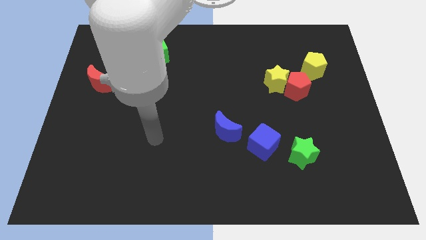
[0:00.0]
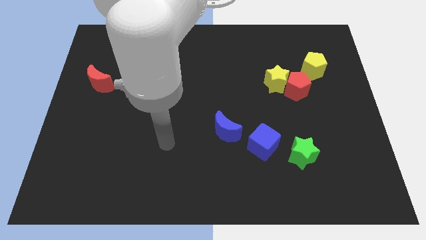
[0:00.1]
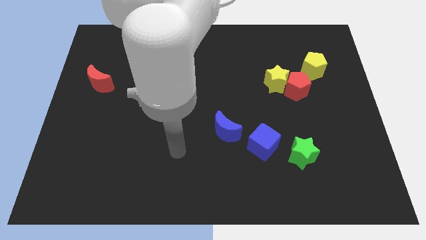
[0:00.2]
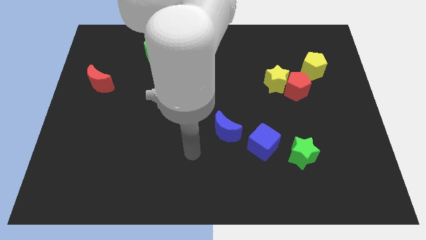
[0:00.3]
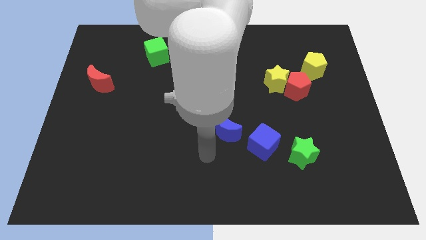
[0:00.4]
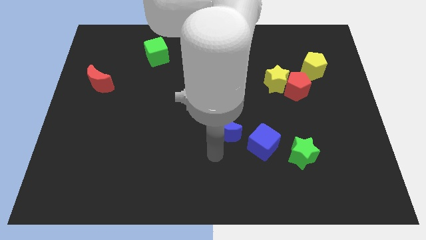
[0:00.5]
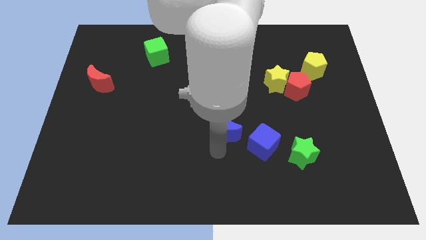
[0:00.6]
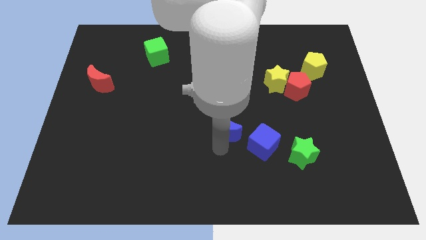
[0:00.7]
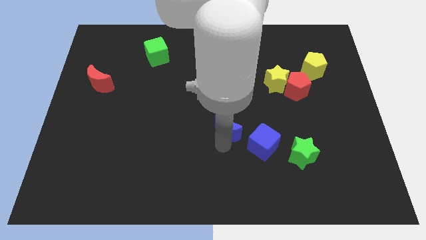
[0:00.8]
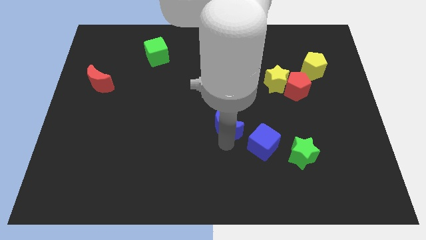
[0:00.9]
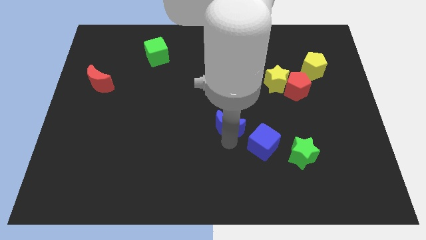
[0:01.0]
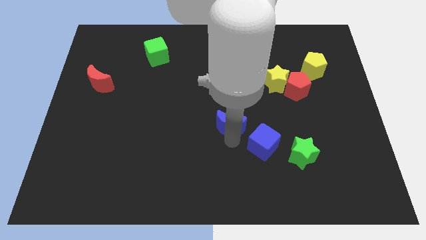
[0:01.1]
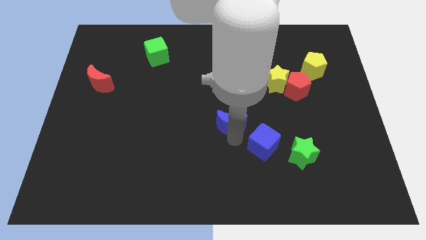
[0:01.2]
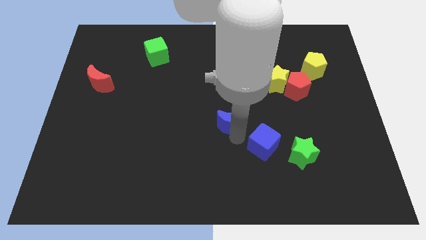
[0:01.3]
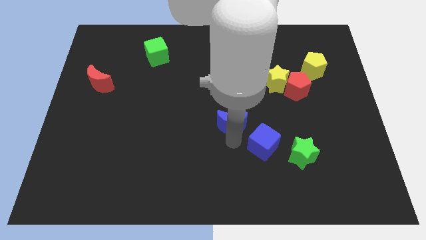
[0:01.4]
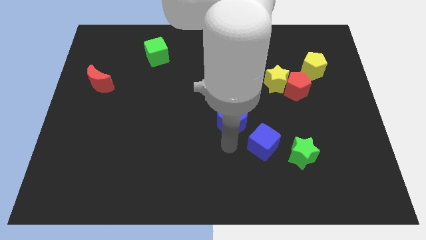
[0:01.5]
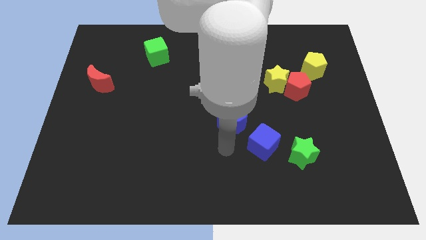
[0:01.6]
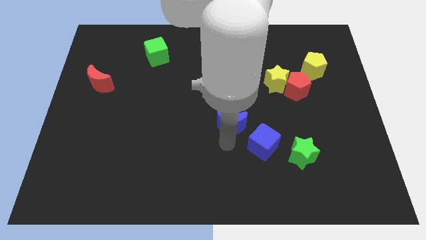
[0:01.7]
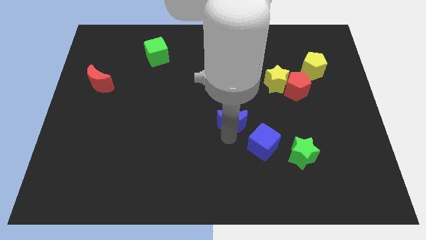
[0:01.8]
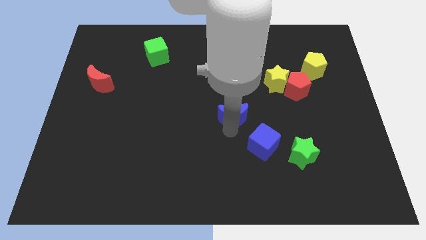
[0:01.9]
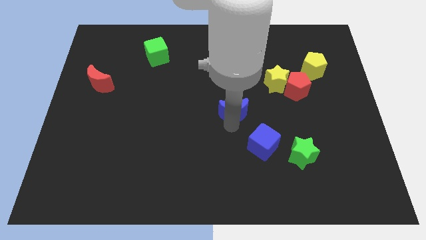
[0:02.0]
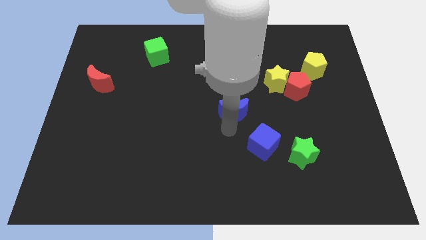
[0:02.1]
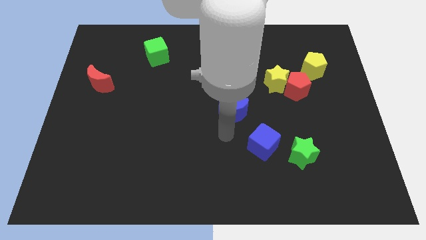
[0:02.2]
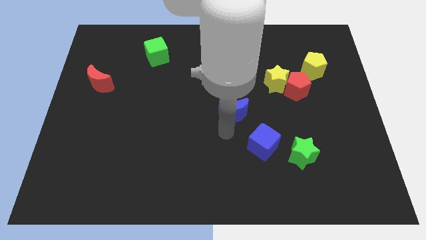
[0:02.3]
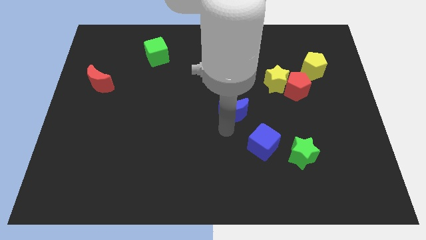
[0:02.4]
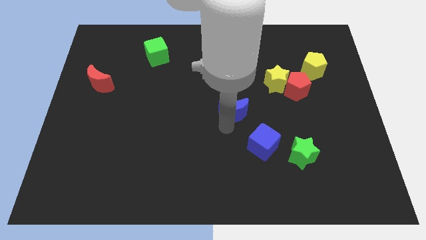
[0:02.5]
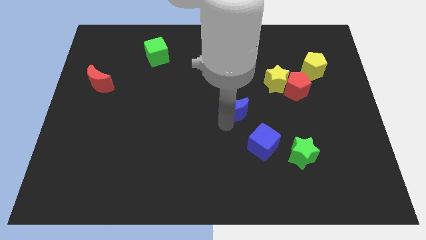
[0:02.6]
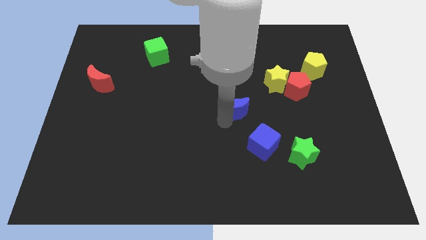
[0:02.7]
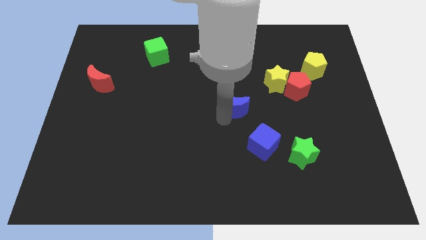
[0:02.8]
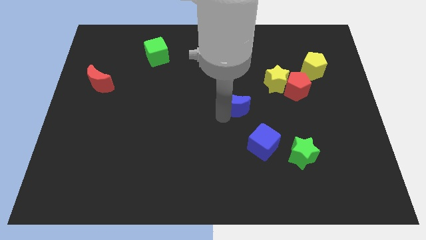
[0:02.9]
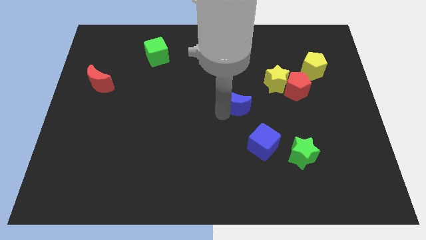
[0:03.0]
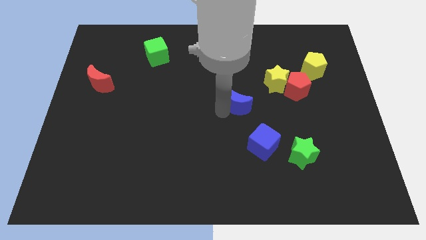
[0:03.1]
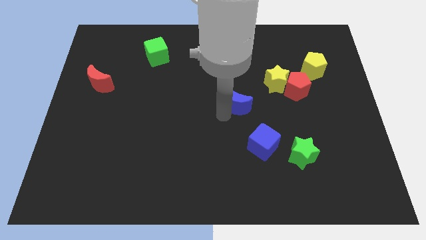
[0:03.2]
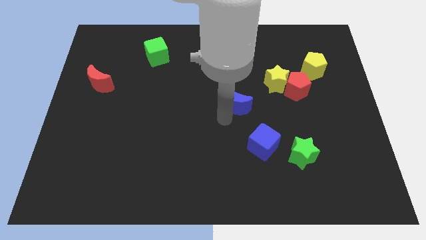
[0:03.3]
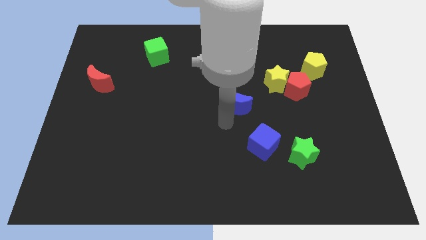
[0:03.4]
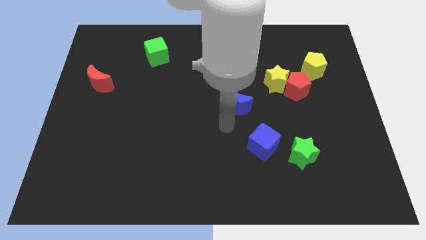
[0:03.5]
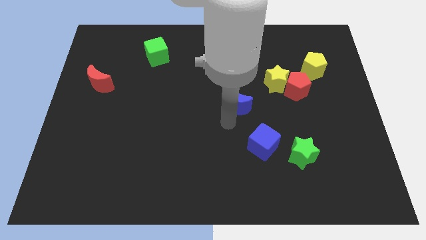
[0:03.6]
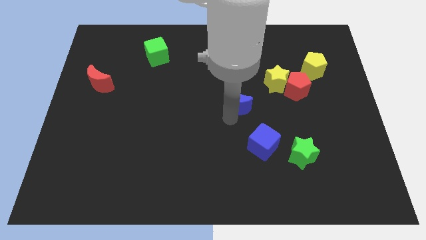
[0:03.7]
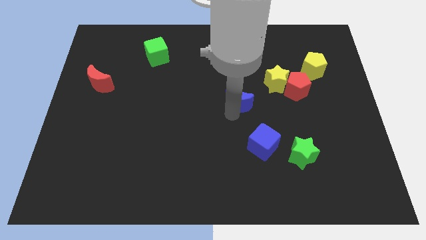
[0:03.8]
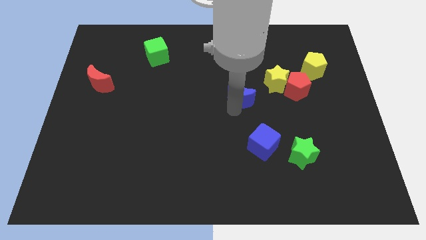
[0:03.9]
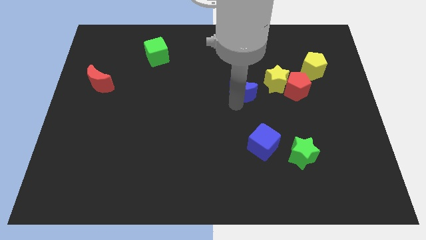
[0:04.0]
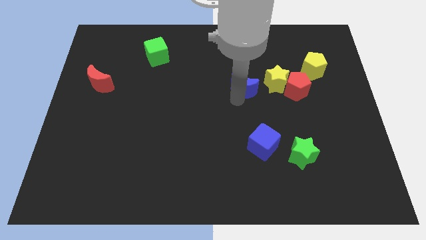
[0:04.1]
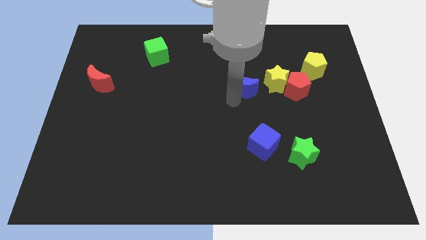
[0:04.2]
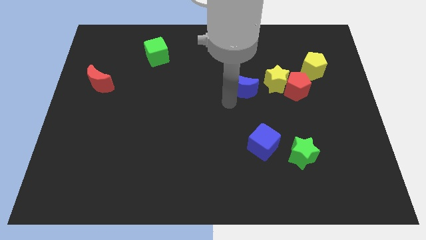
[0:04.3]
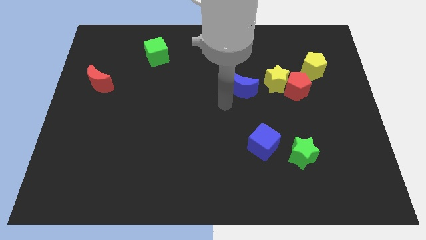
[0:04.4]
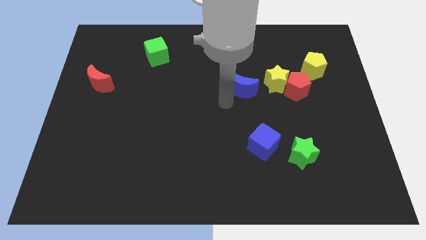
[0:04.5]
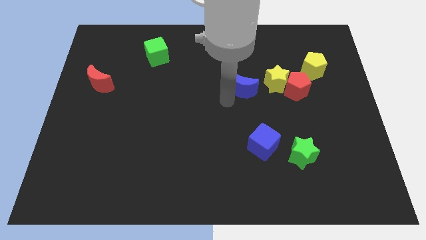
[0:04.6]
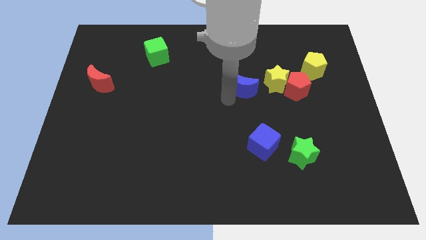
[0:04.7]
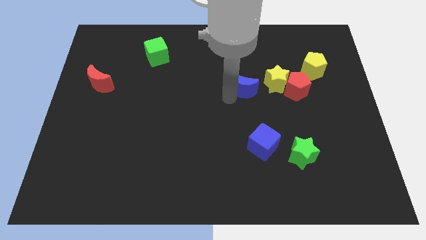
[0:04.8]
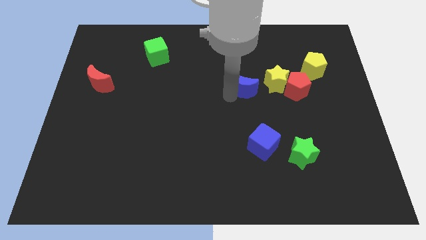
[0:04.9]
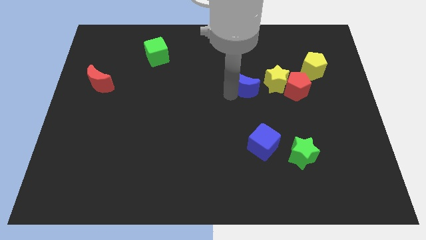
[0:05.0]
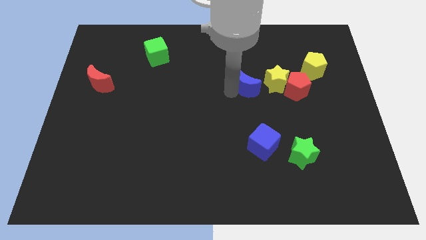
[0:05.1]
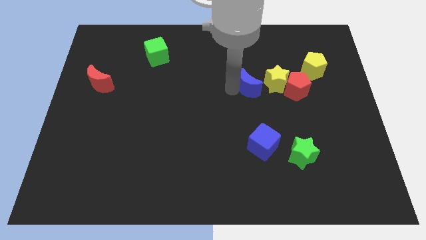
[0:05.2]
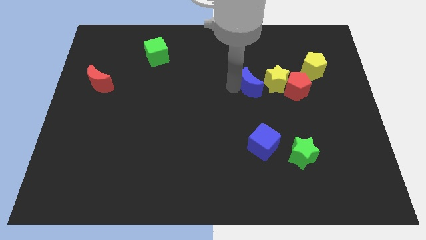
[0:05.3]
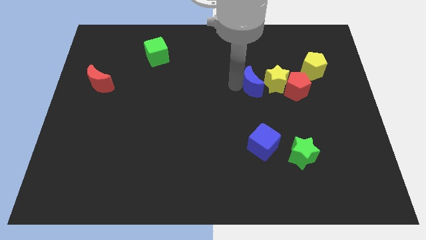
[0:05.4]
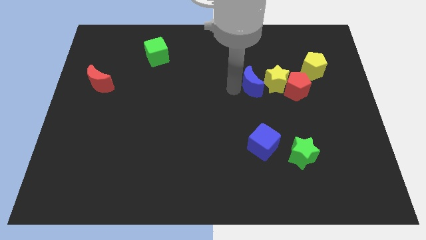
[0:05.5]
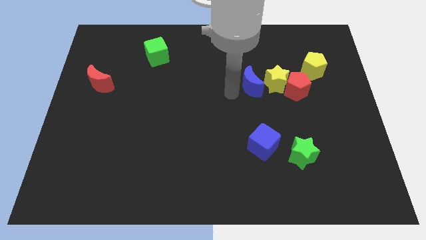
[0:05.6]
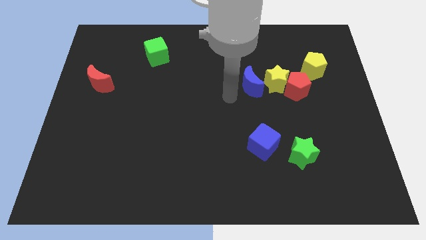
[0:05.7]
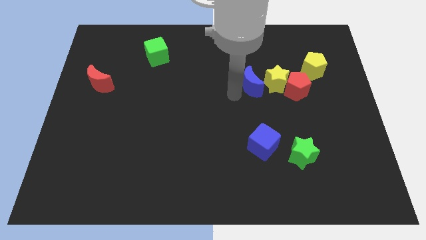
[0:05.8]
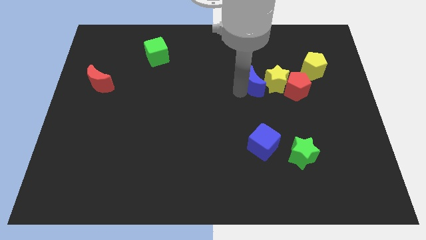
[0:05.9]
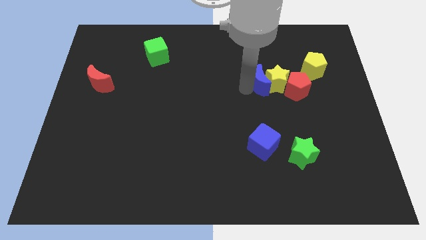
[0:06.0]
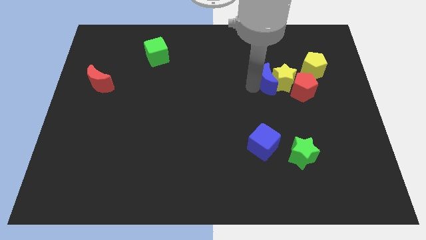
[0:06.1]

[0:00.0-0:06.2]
slide the blue moon to the top left of the red pentagon

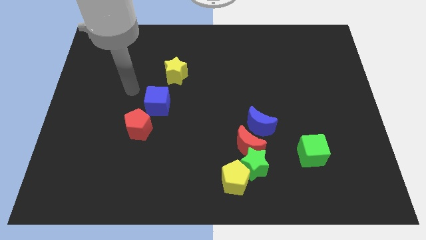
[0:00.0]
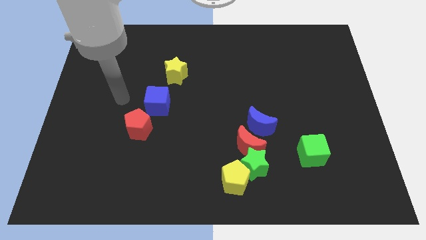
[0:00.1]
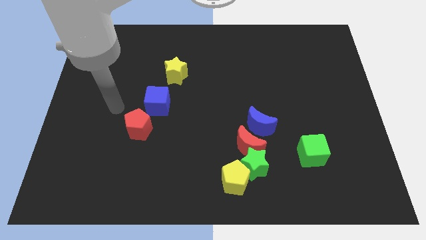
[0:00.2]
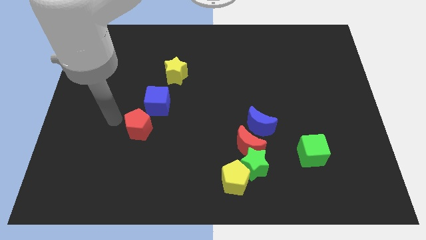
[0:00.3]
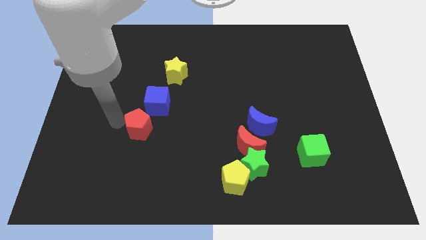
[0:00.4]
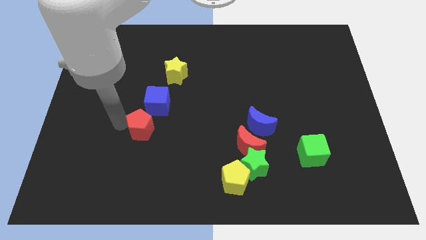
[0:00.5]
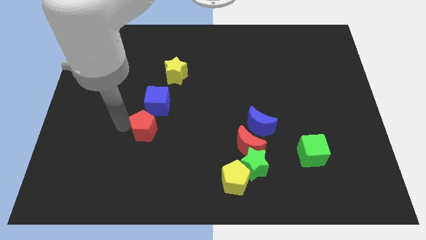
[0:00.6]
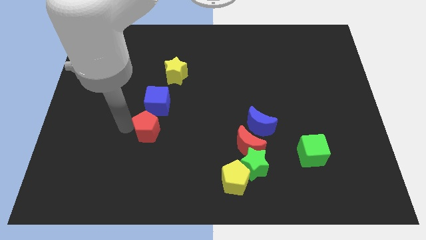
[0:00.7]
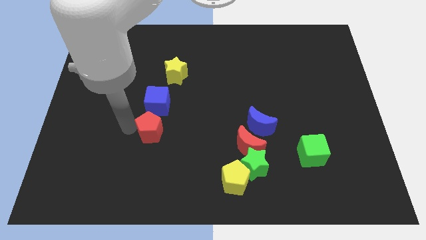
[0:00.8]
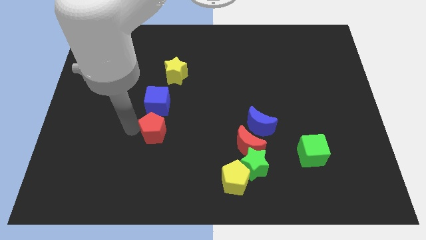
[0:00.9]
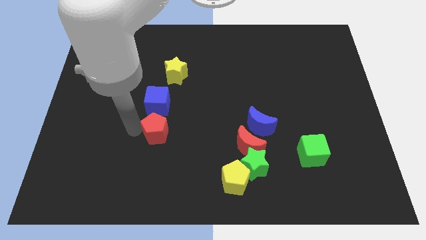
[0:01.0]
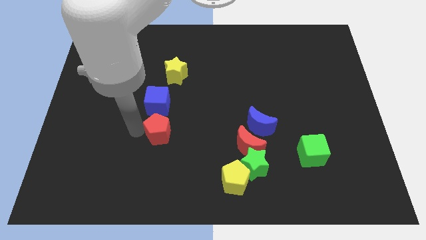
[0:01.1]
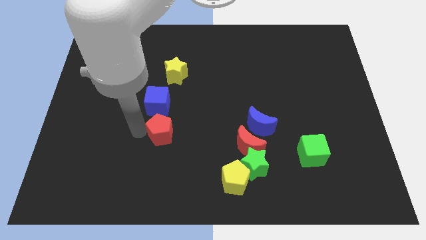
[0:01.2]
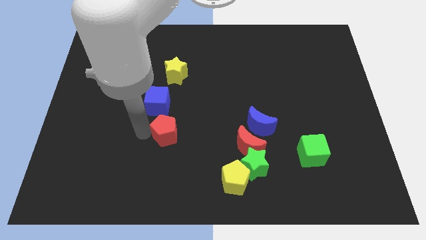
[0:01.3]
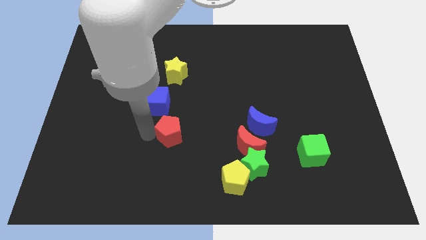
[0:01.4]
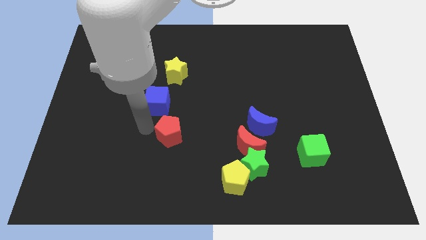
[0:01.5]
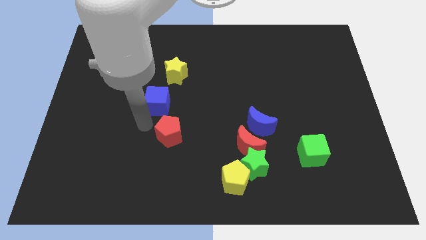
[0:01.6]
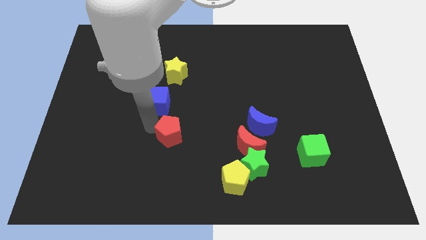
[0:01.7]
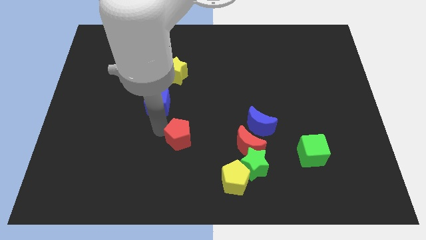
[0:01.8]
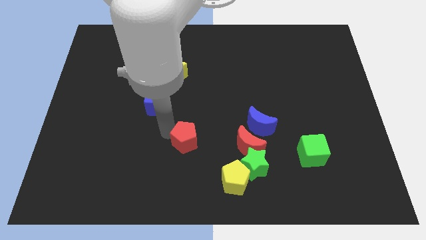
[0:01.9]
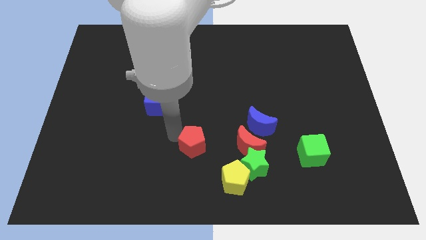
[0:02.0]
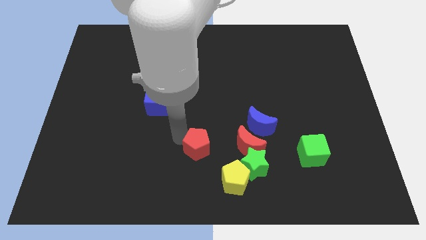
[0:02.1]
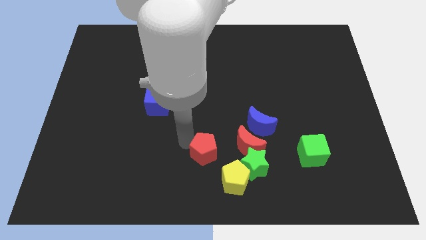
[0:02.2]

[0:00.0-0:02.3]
put the red pentagon diagonally up and to the left of the green star
